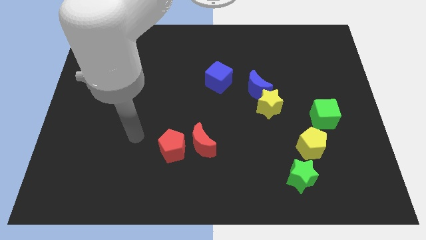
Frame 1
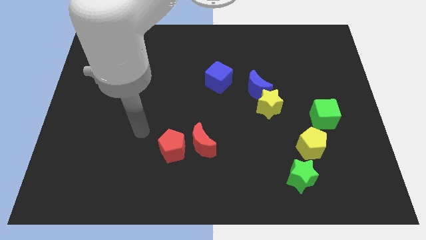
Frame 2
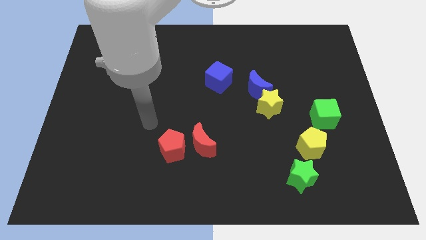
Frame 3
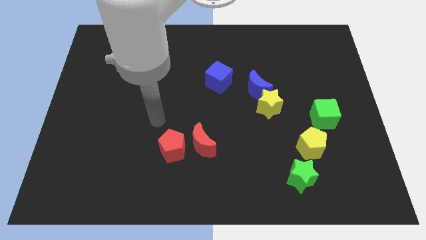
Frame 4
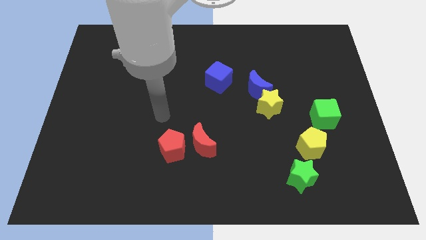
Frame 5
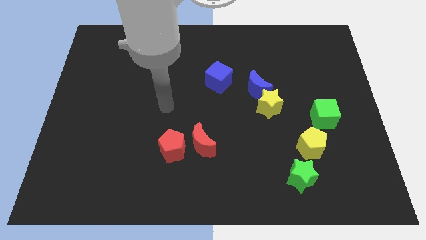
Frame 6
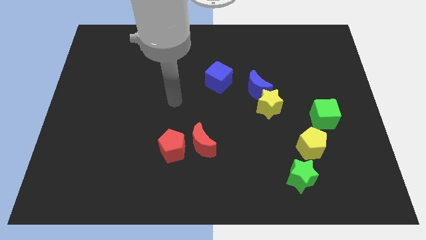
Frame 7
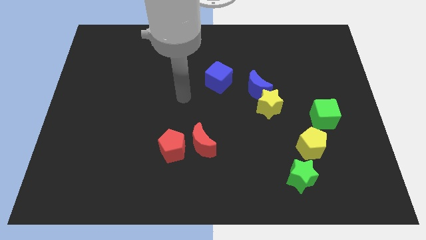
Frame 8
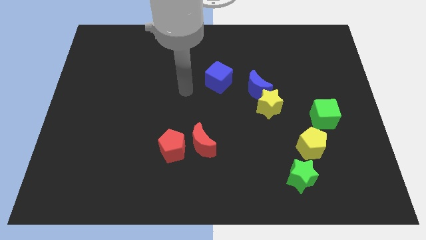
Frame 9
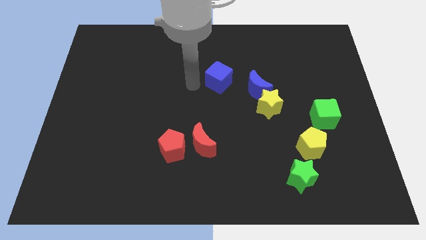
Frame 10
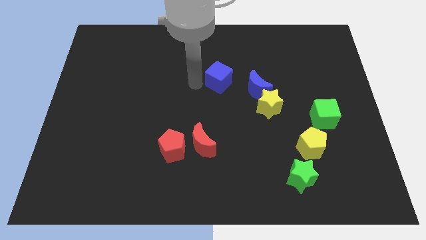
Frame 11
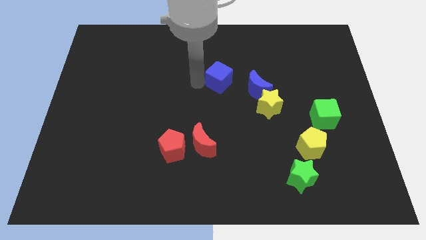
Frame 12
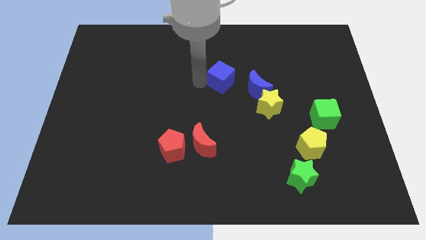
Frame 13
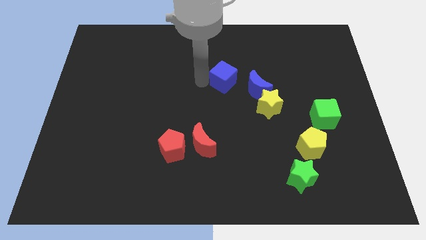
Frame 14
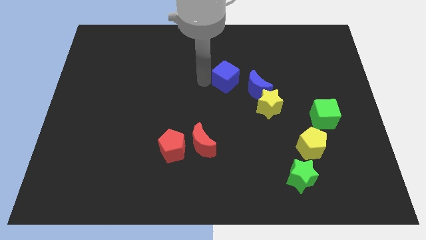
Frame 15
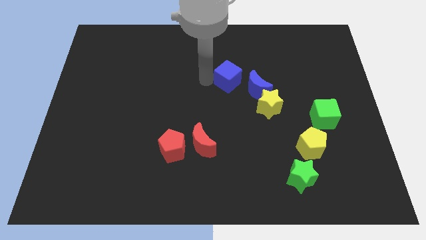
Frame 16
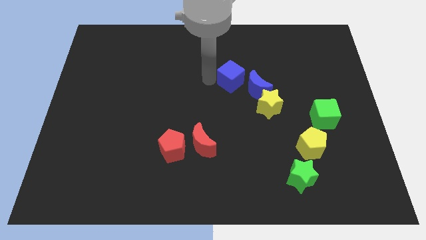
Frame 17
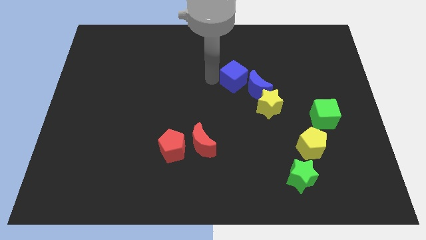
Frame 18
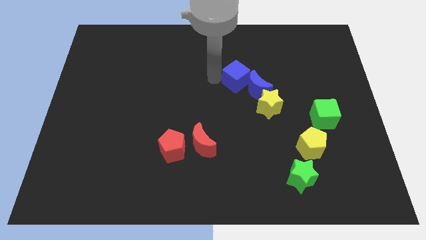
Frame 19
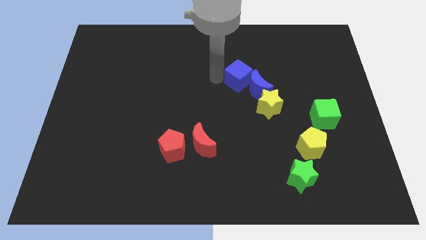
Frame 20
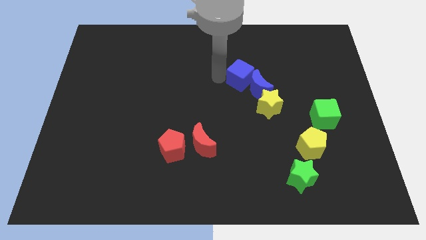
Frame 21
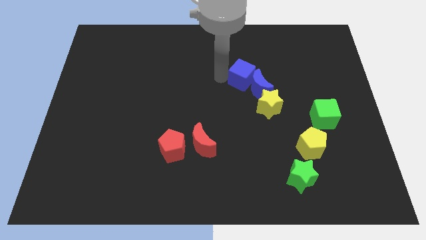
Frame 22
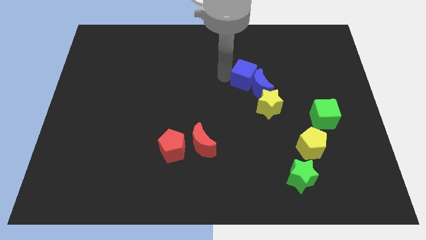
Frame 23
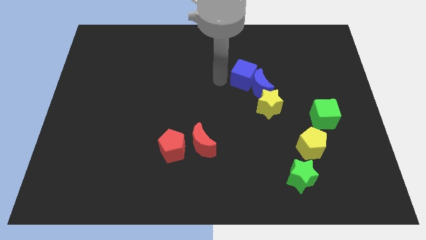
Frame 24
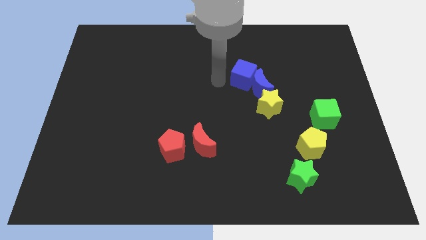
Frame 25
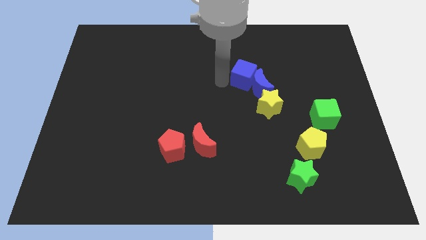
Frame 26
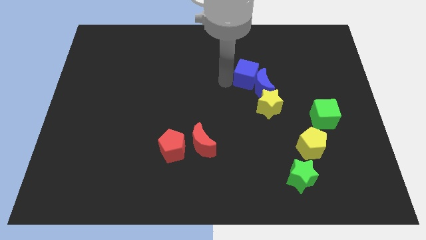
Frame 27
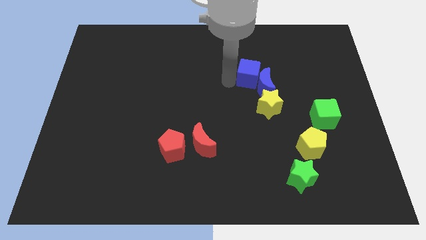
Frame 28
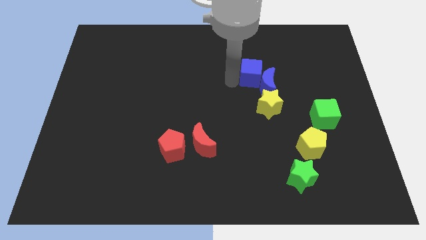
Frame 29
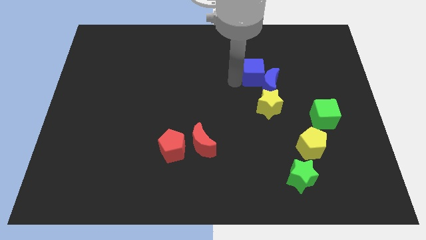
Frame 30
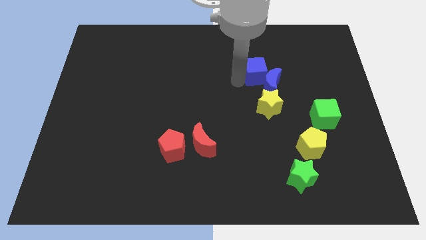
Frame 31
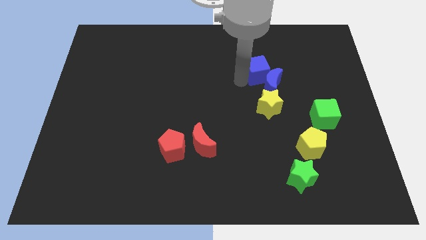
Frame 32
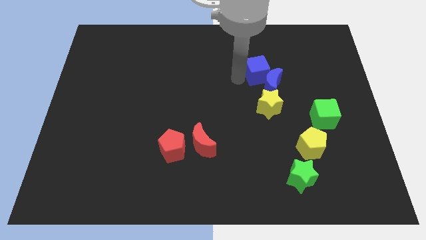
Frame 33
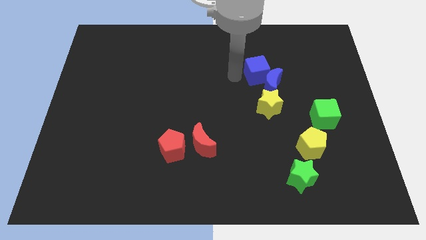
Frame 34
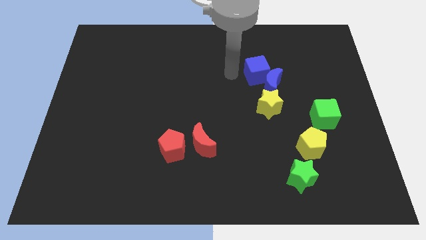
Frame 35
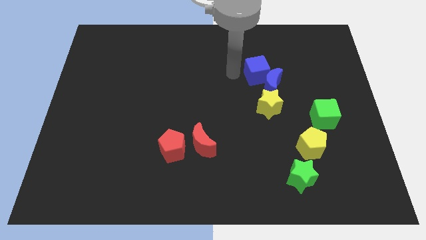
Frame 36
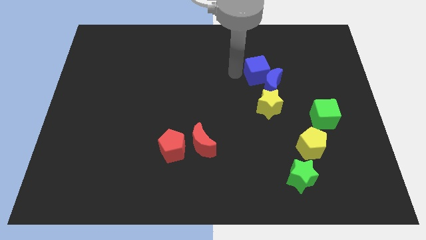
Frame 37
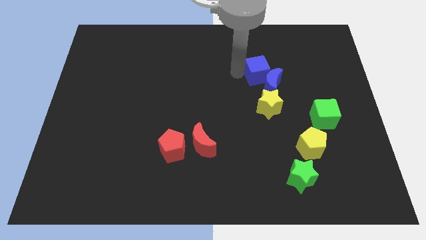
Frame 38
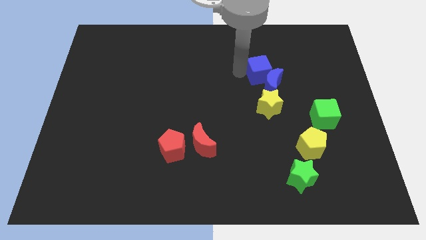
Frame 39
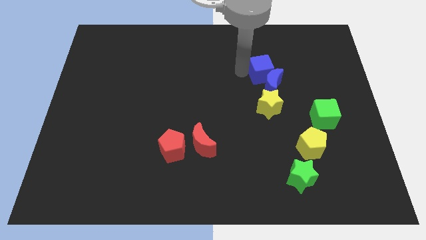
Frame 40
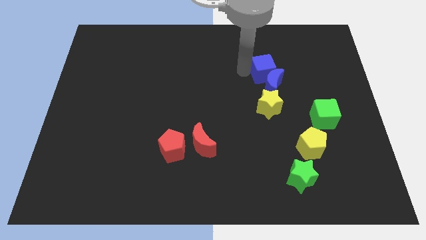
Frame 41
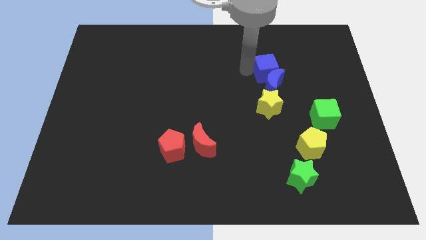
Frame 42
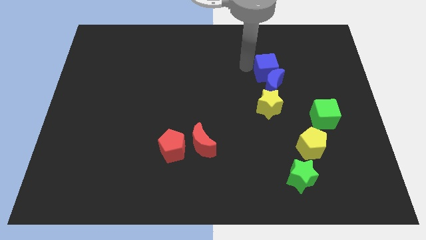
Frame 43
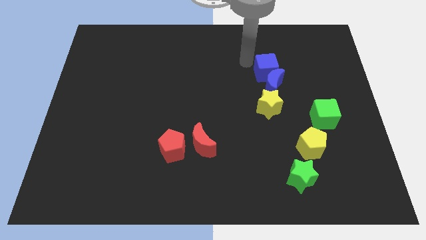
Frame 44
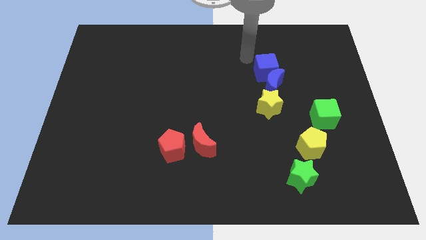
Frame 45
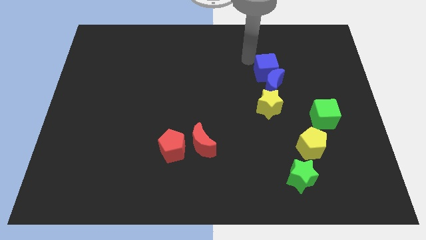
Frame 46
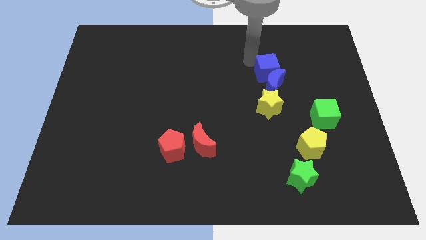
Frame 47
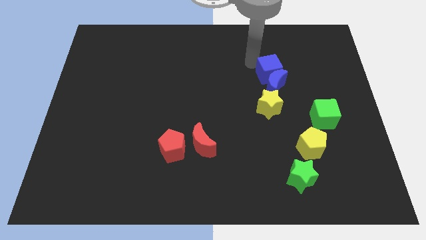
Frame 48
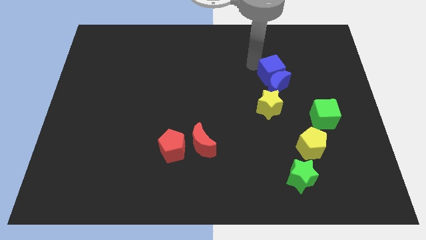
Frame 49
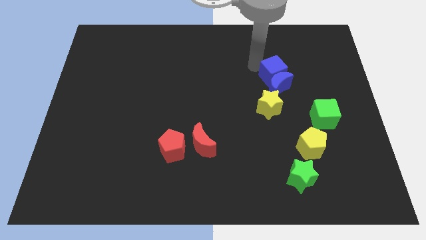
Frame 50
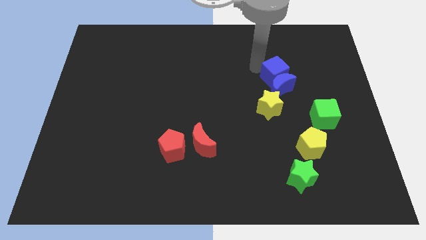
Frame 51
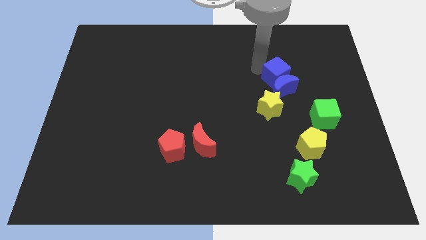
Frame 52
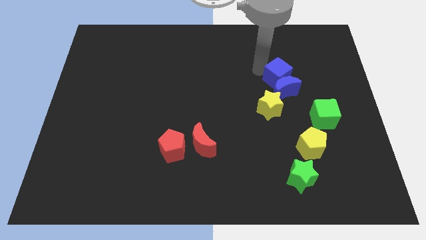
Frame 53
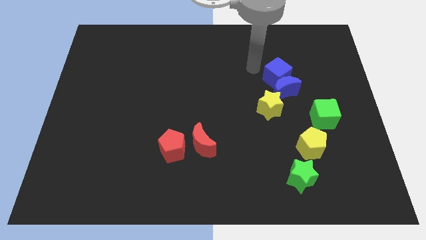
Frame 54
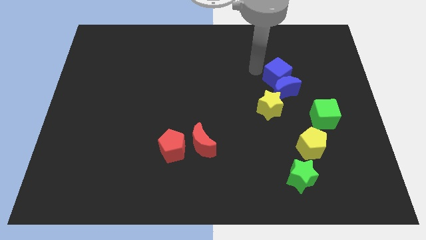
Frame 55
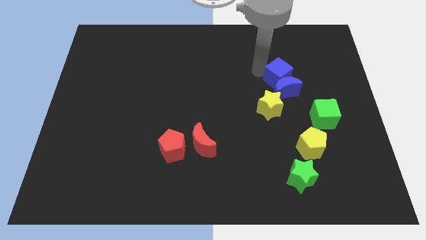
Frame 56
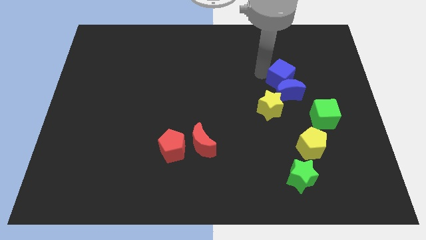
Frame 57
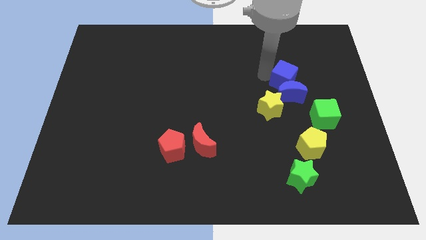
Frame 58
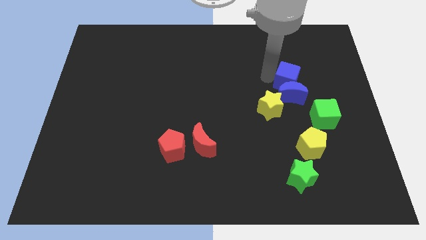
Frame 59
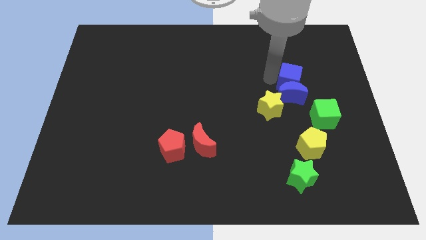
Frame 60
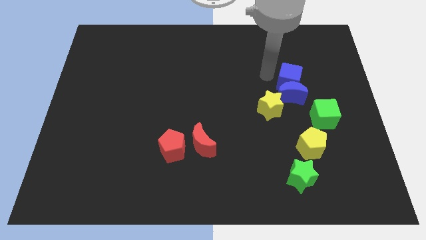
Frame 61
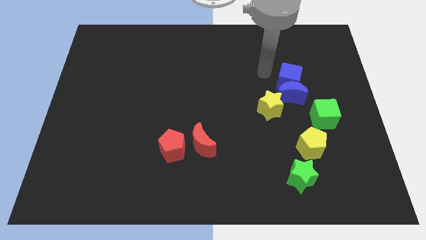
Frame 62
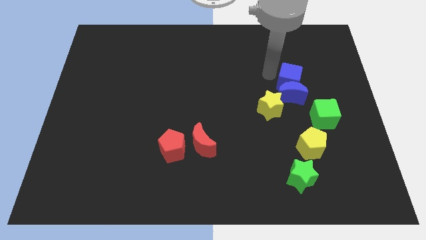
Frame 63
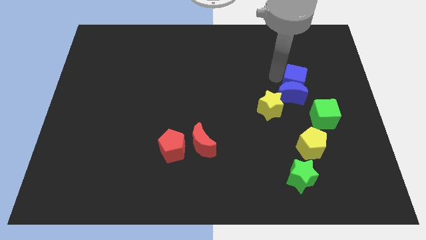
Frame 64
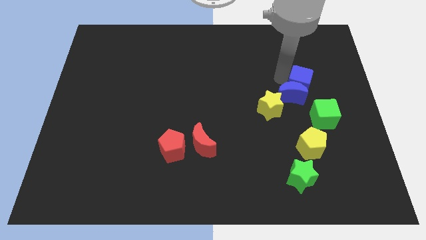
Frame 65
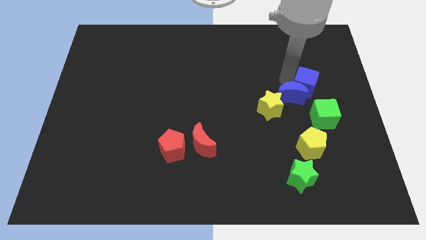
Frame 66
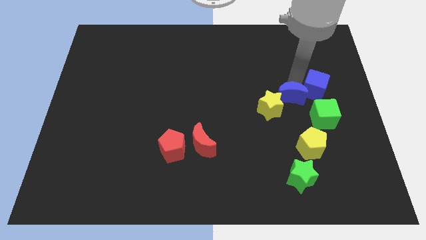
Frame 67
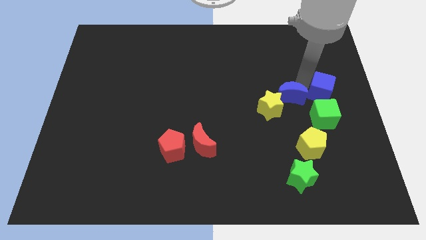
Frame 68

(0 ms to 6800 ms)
move the blue cube to the right side of the board
